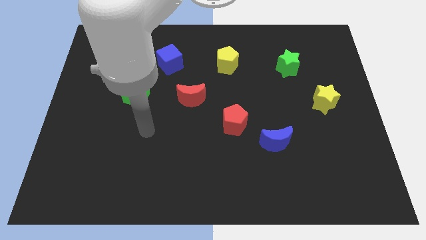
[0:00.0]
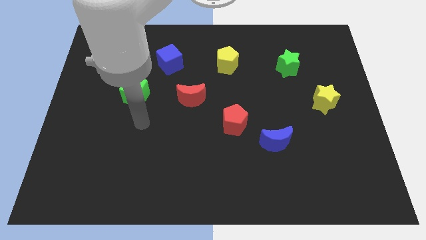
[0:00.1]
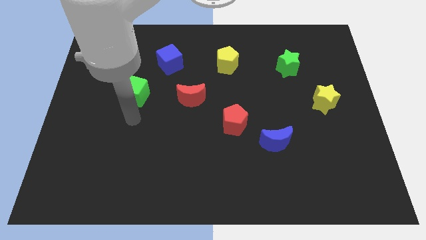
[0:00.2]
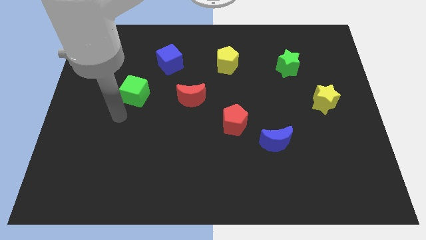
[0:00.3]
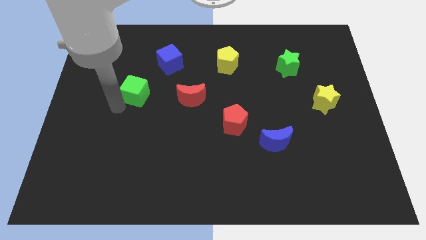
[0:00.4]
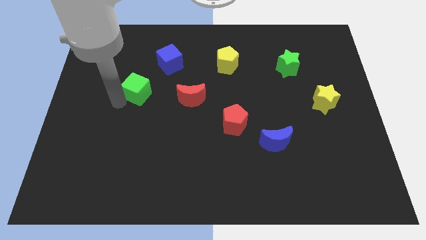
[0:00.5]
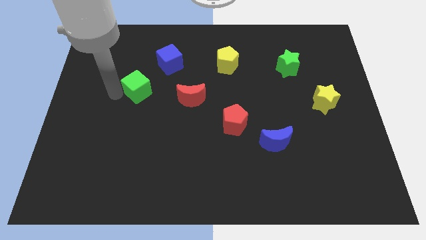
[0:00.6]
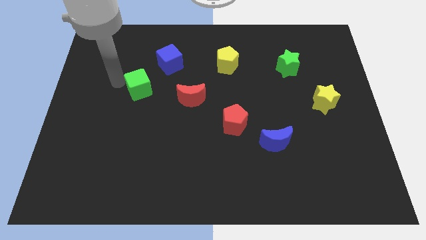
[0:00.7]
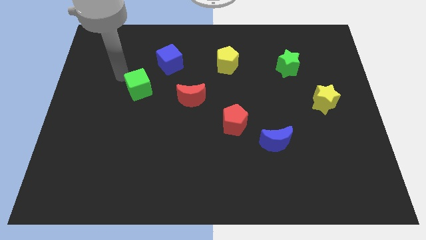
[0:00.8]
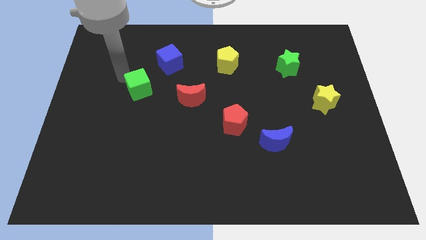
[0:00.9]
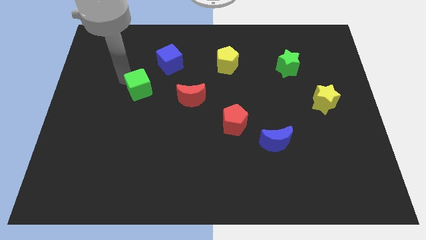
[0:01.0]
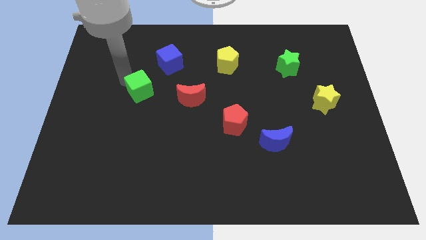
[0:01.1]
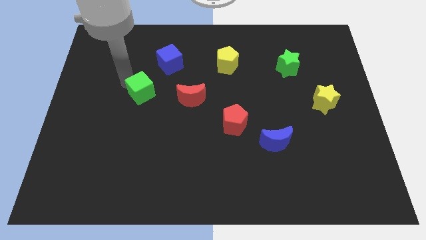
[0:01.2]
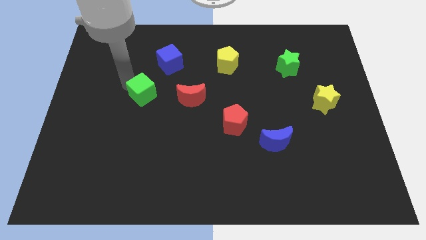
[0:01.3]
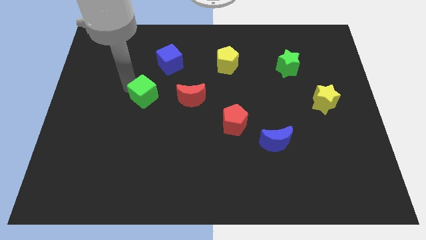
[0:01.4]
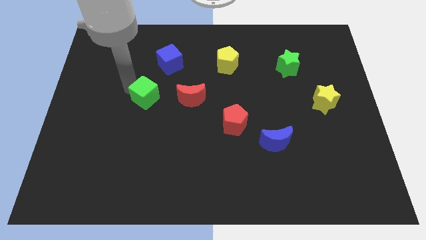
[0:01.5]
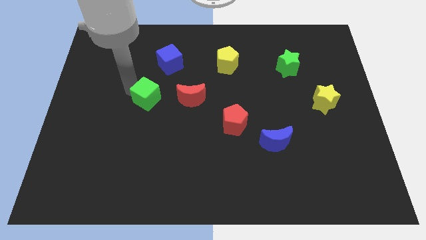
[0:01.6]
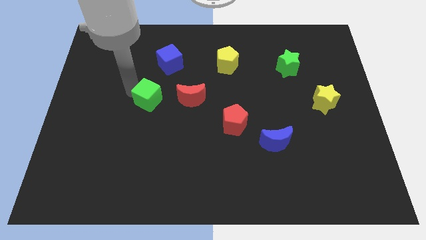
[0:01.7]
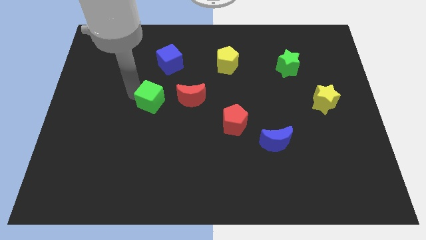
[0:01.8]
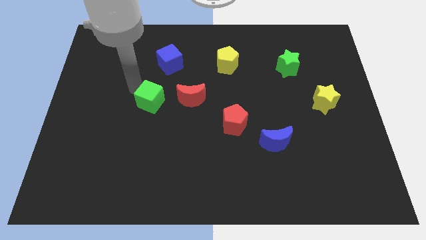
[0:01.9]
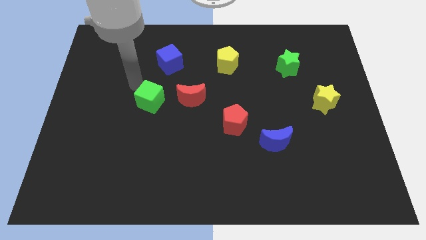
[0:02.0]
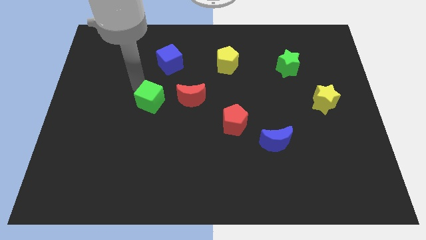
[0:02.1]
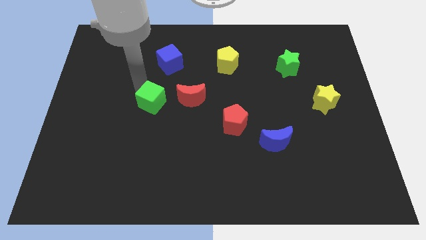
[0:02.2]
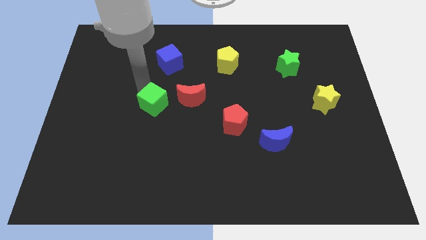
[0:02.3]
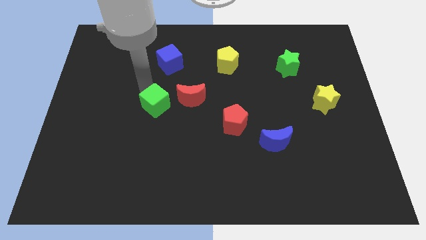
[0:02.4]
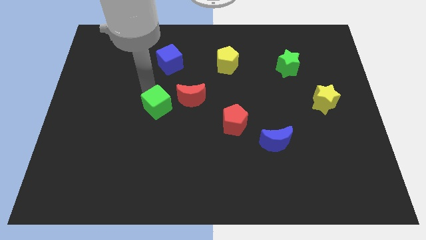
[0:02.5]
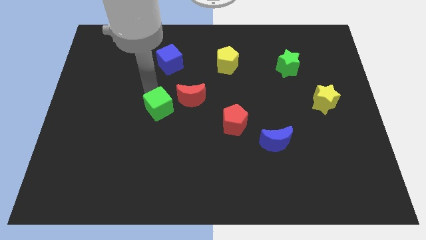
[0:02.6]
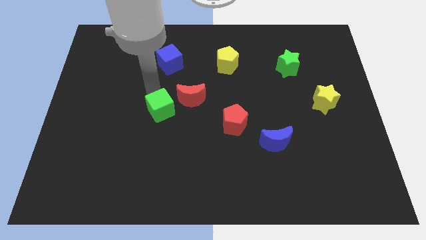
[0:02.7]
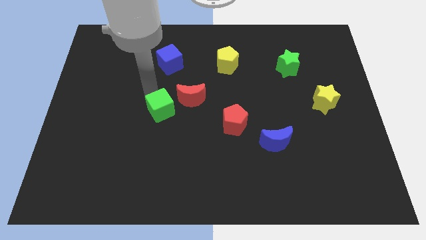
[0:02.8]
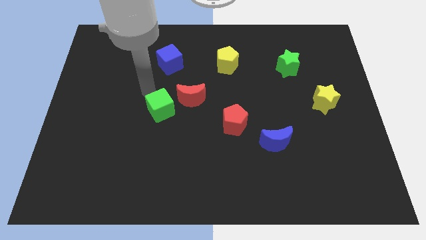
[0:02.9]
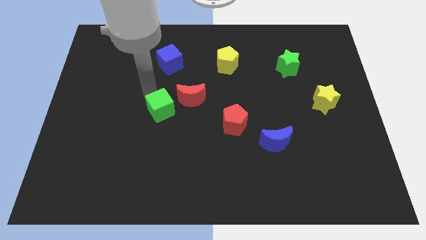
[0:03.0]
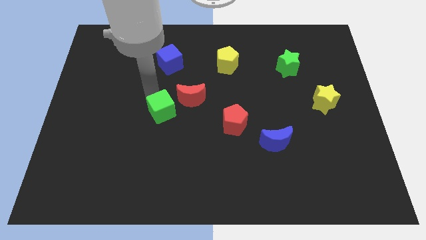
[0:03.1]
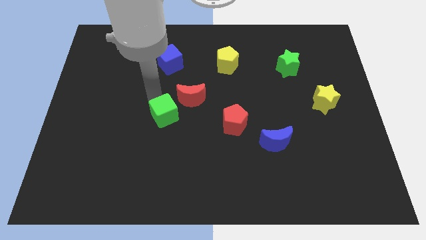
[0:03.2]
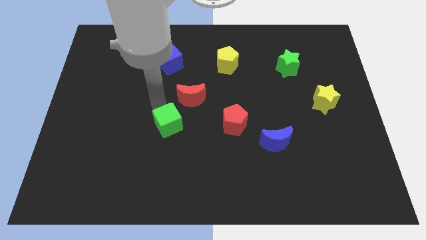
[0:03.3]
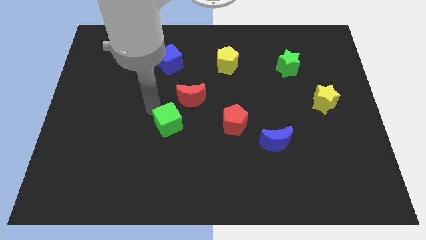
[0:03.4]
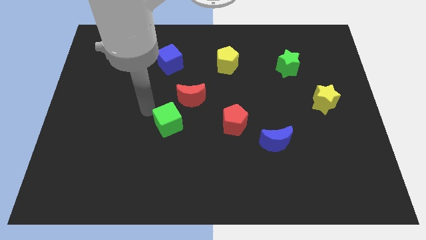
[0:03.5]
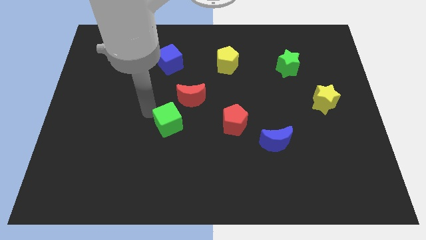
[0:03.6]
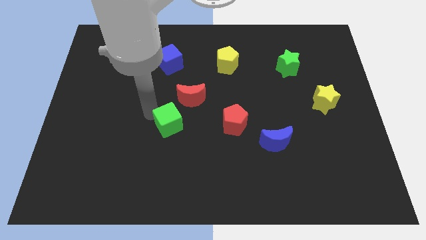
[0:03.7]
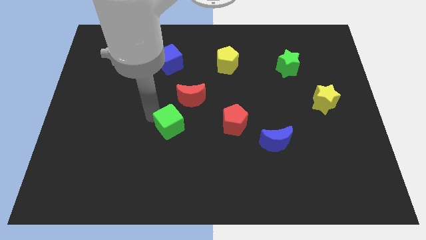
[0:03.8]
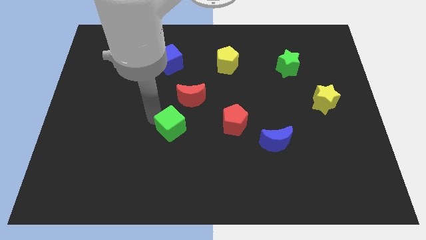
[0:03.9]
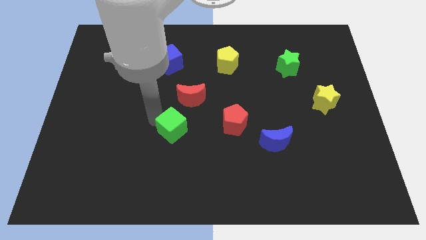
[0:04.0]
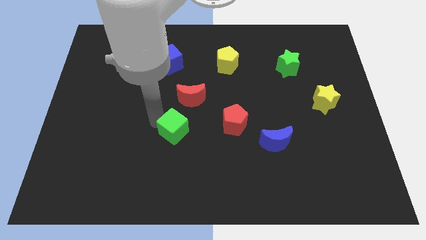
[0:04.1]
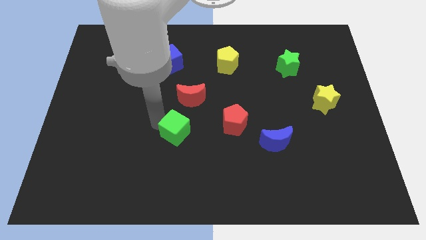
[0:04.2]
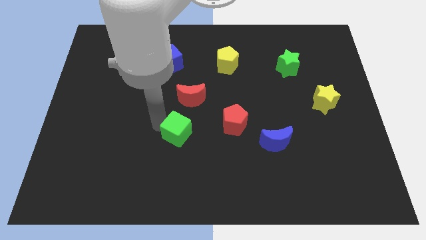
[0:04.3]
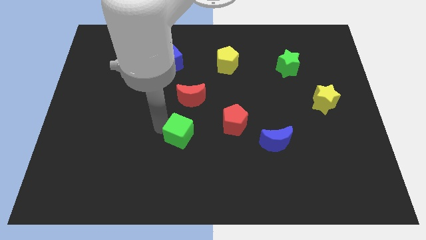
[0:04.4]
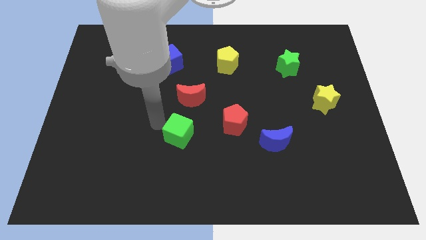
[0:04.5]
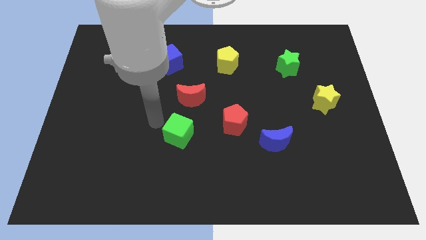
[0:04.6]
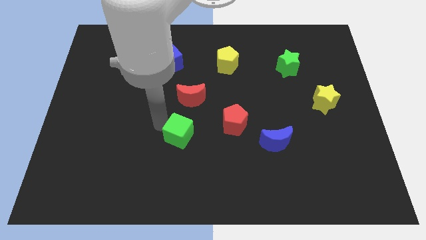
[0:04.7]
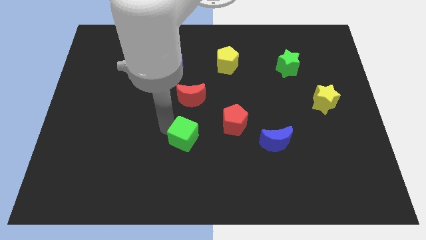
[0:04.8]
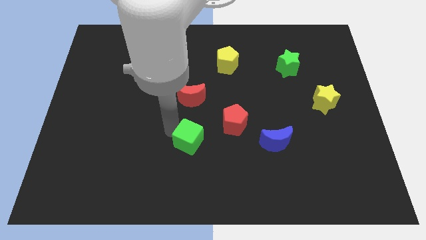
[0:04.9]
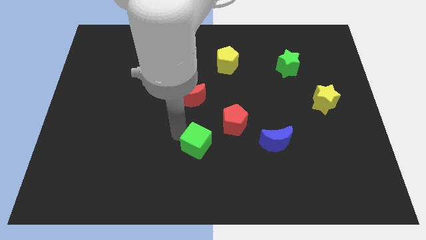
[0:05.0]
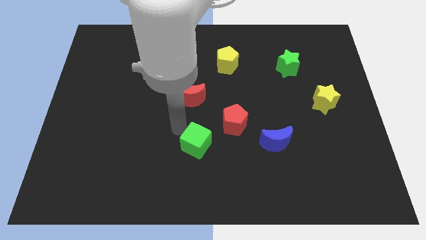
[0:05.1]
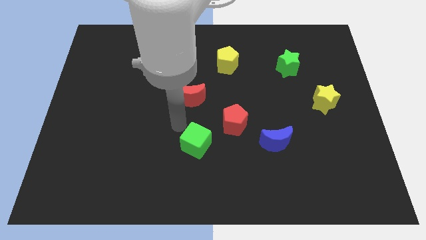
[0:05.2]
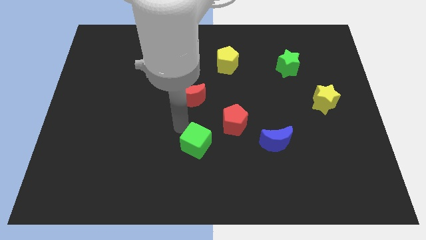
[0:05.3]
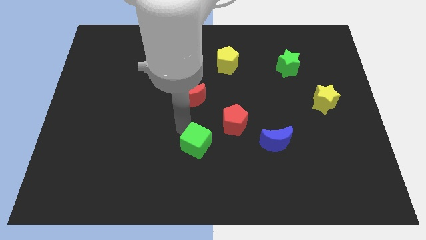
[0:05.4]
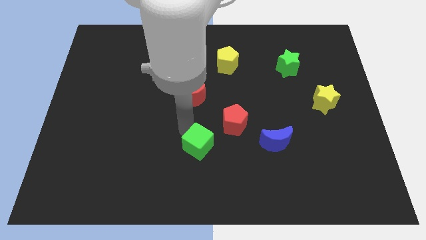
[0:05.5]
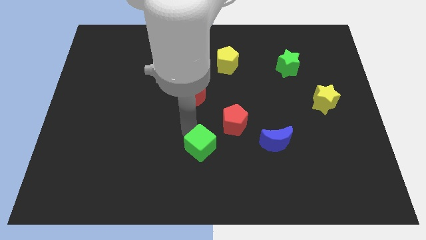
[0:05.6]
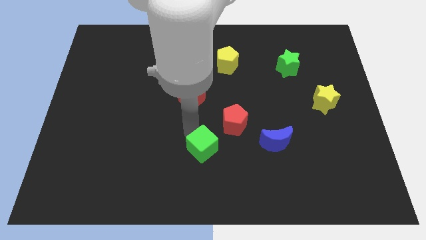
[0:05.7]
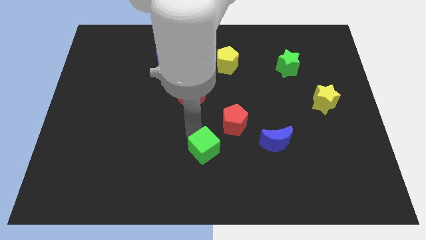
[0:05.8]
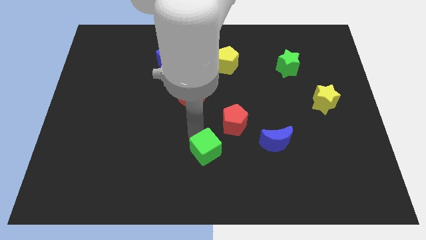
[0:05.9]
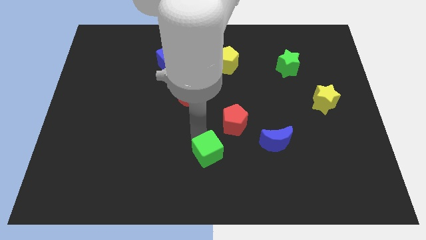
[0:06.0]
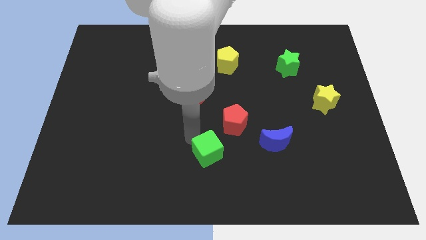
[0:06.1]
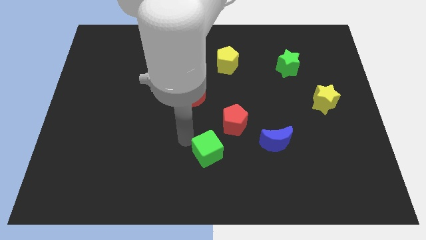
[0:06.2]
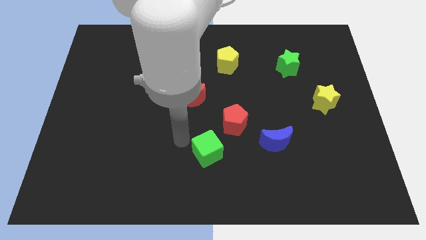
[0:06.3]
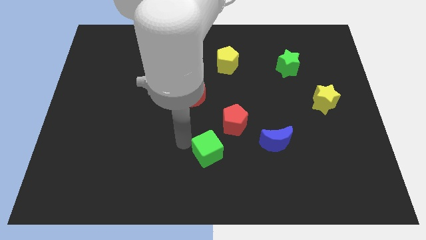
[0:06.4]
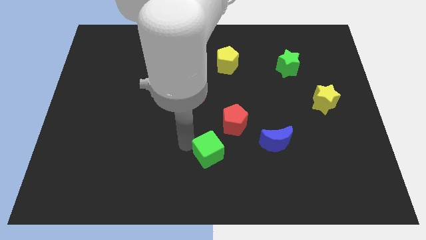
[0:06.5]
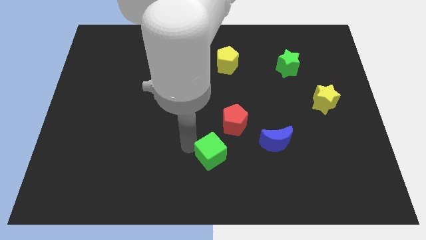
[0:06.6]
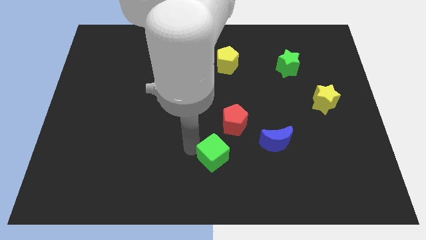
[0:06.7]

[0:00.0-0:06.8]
push the green cube to the bottom side of the red pentagon
